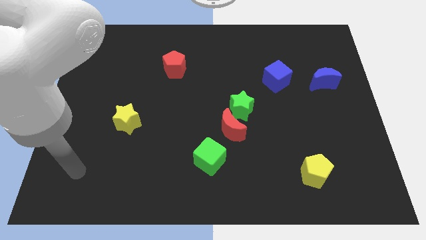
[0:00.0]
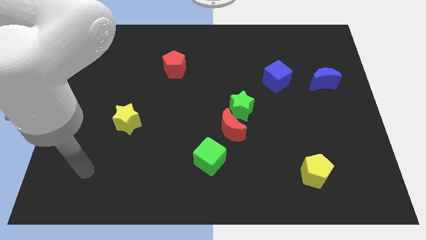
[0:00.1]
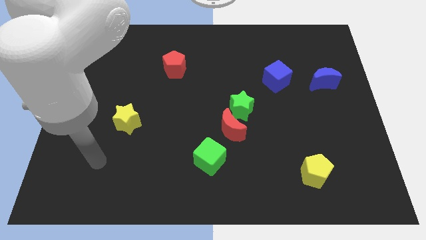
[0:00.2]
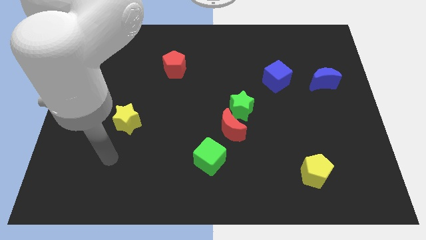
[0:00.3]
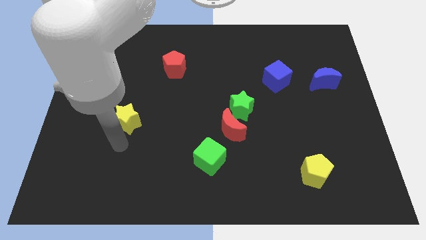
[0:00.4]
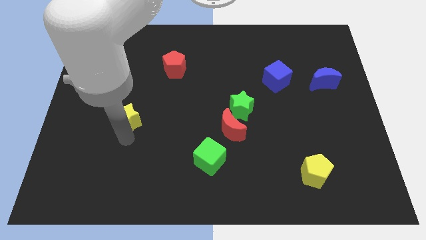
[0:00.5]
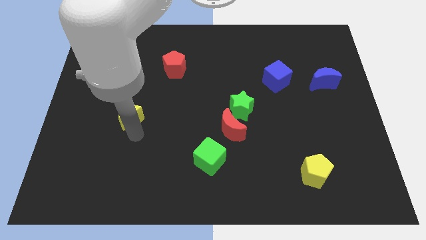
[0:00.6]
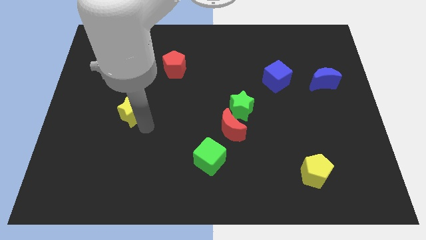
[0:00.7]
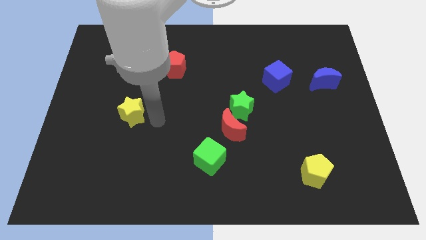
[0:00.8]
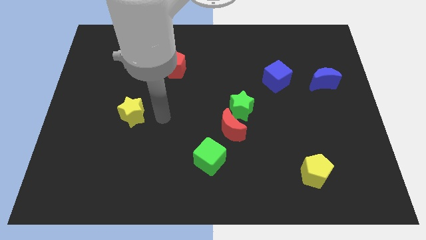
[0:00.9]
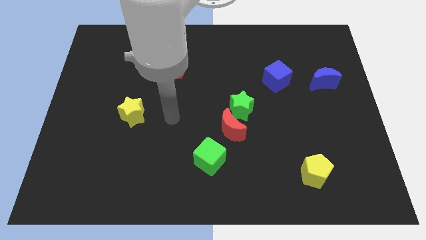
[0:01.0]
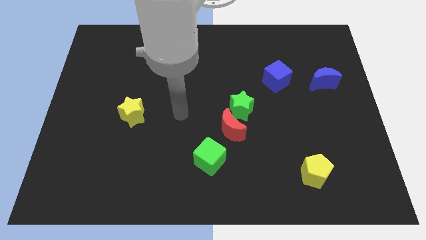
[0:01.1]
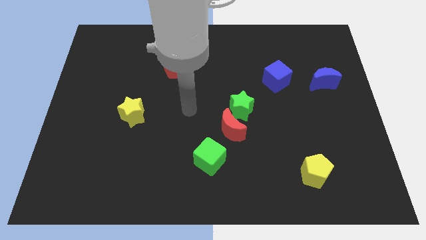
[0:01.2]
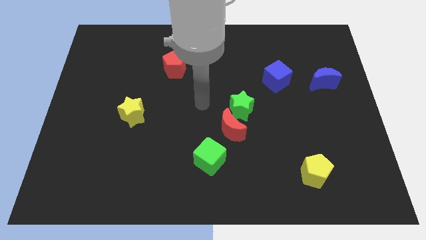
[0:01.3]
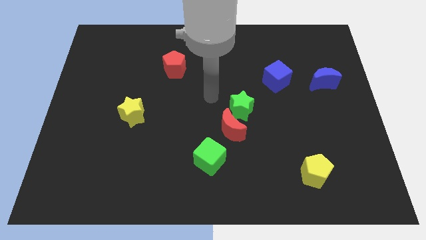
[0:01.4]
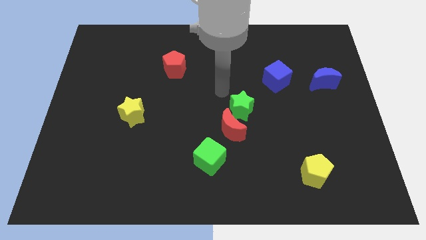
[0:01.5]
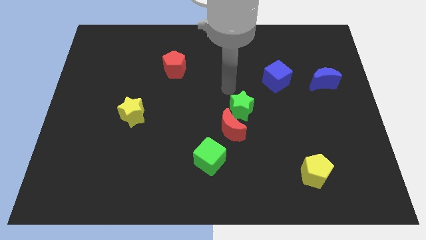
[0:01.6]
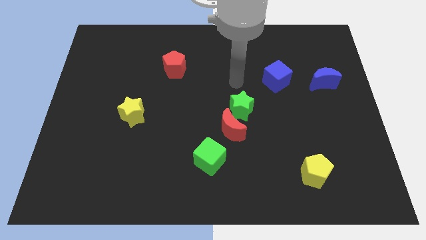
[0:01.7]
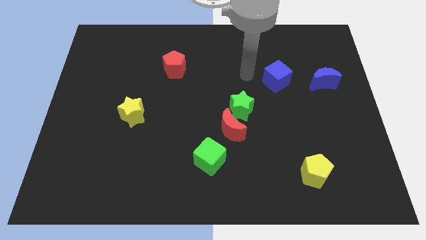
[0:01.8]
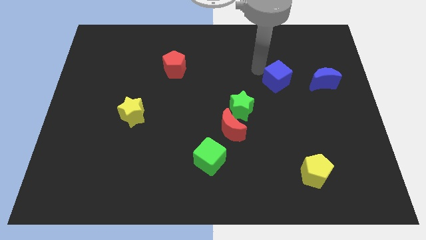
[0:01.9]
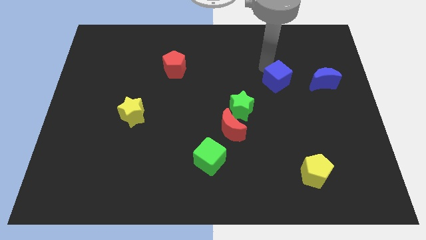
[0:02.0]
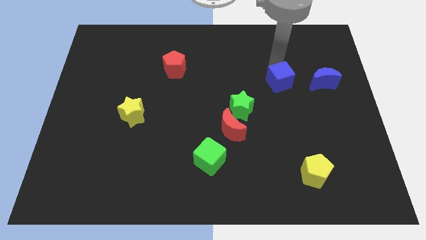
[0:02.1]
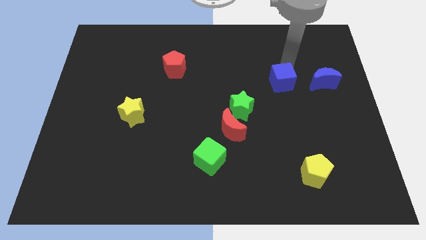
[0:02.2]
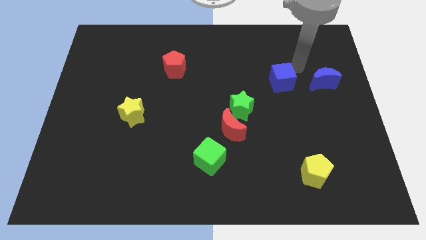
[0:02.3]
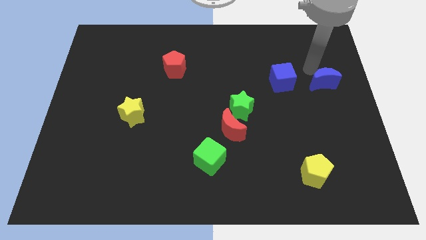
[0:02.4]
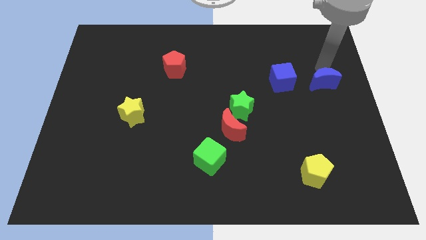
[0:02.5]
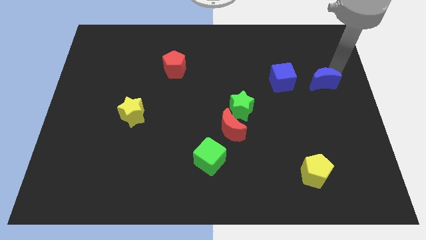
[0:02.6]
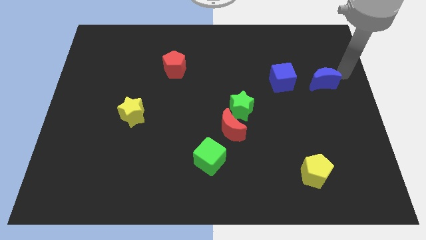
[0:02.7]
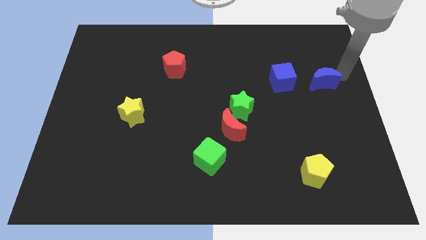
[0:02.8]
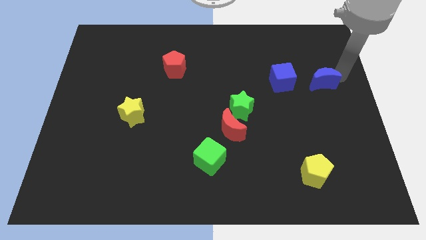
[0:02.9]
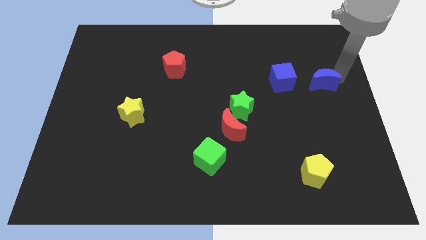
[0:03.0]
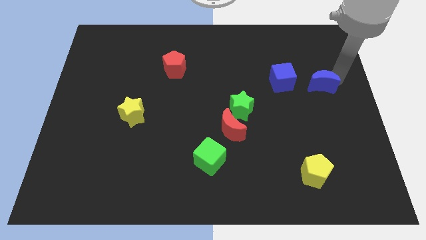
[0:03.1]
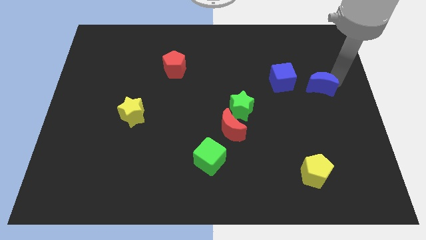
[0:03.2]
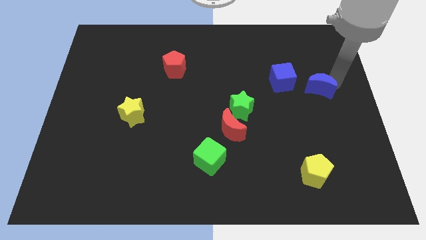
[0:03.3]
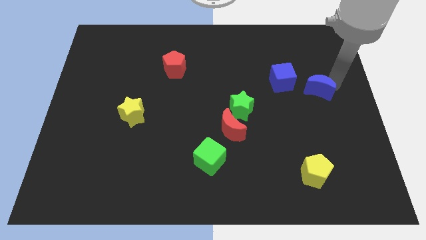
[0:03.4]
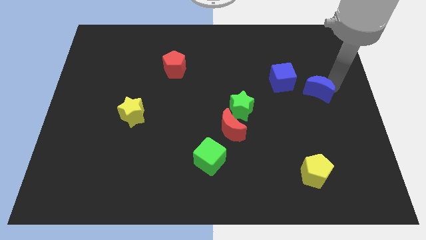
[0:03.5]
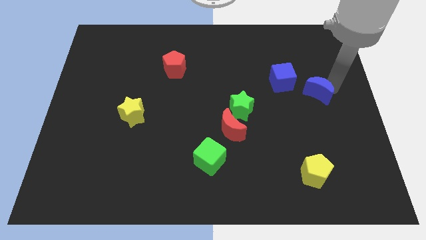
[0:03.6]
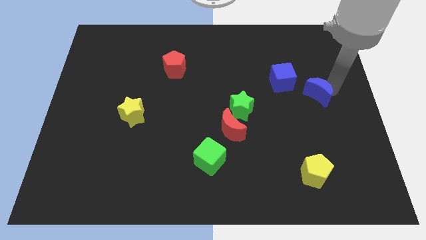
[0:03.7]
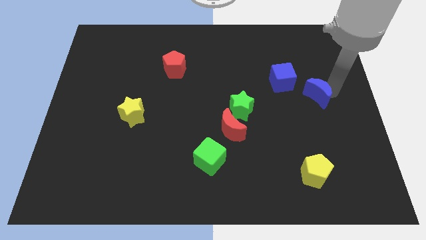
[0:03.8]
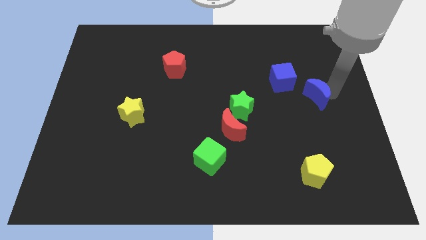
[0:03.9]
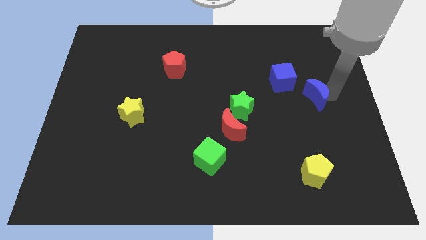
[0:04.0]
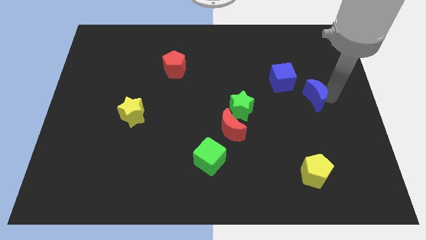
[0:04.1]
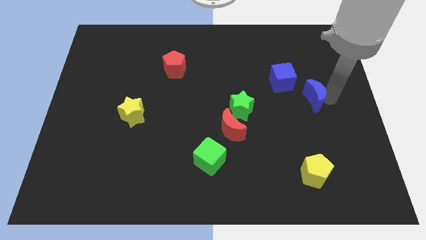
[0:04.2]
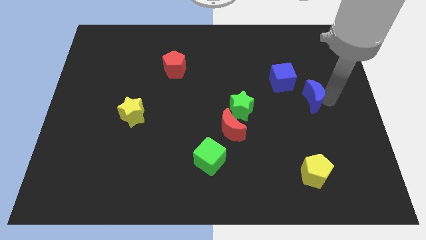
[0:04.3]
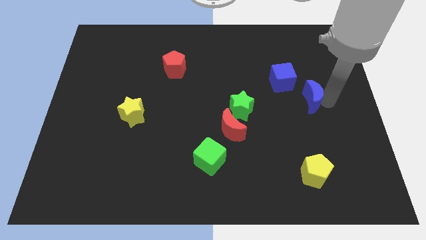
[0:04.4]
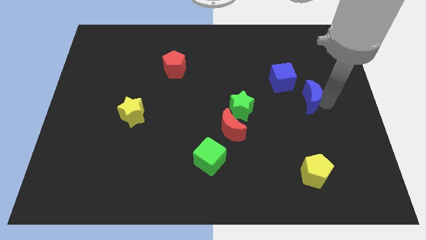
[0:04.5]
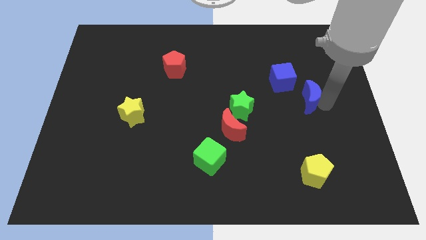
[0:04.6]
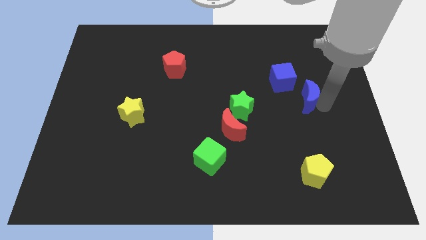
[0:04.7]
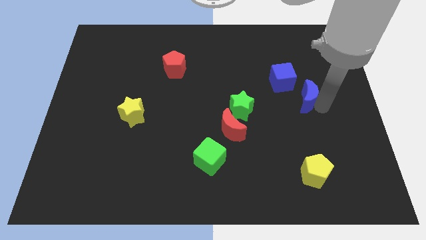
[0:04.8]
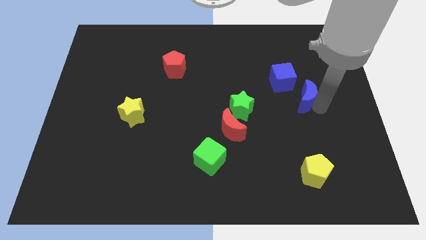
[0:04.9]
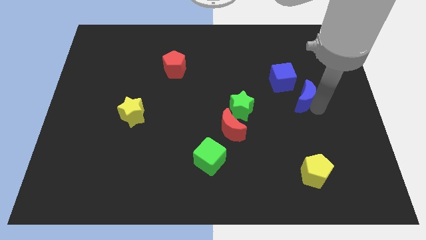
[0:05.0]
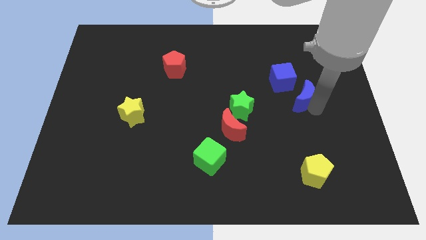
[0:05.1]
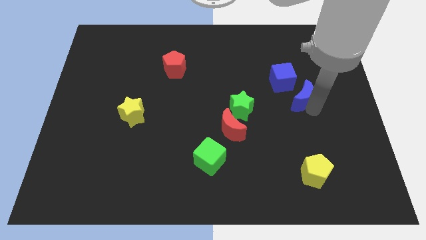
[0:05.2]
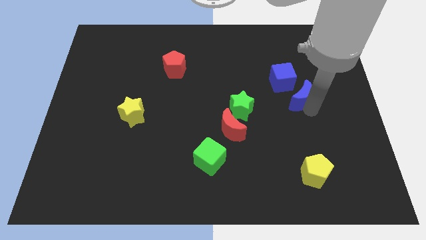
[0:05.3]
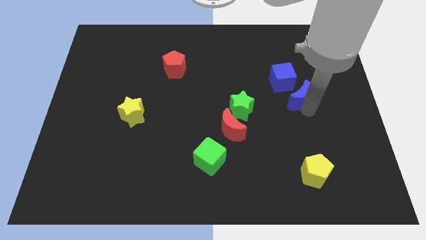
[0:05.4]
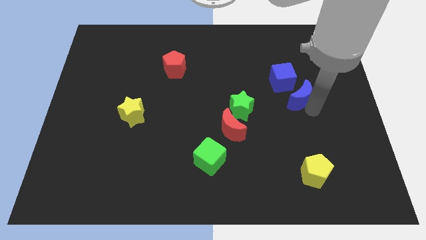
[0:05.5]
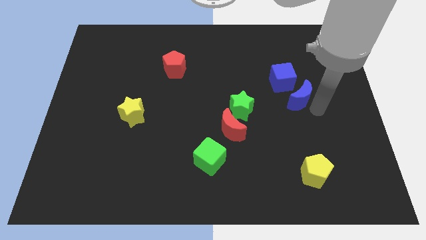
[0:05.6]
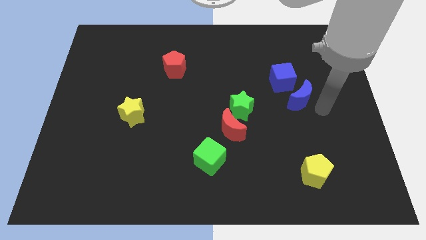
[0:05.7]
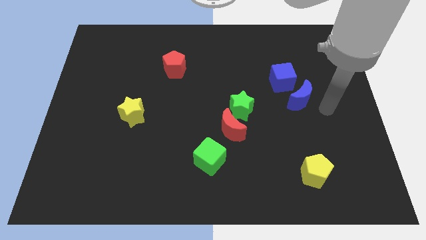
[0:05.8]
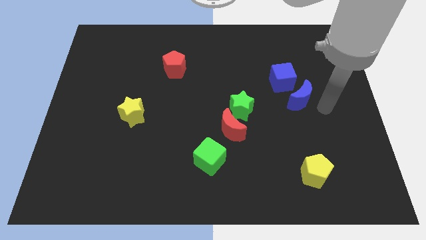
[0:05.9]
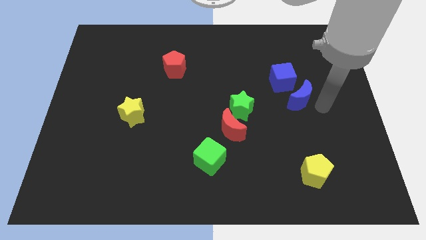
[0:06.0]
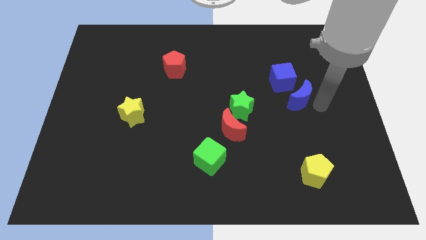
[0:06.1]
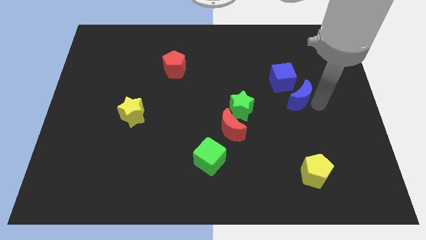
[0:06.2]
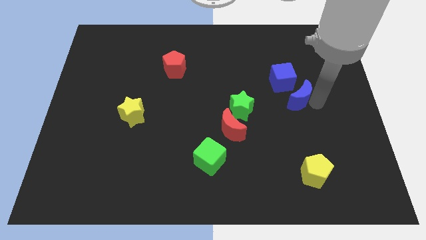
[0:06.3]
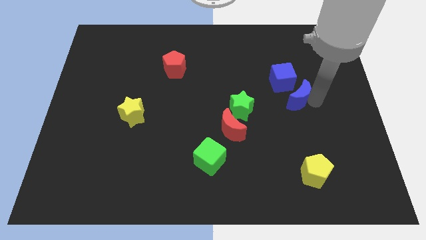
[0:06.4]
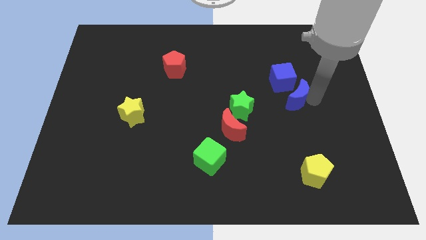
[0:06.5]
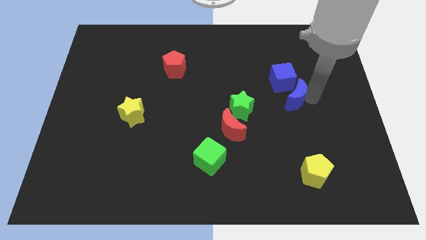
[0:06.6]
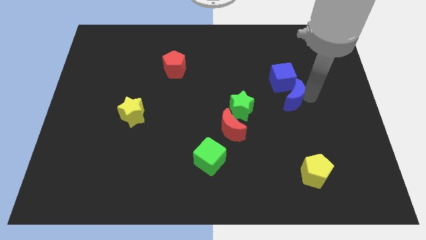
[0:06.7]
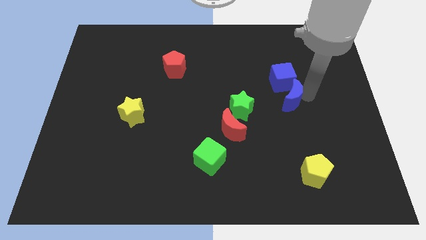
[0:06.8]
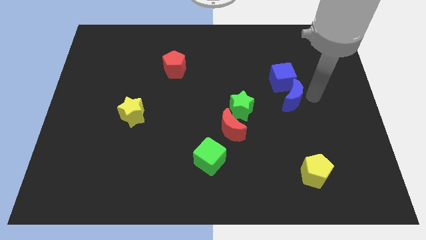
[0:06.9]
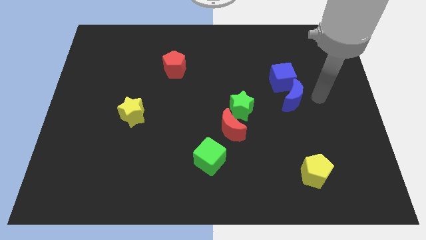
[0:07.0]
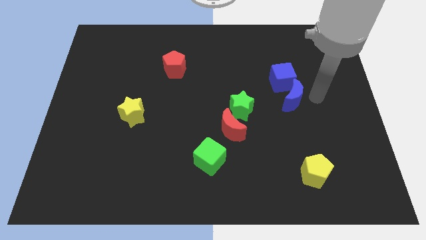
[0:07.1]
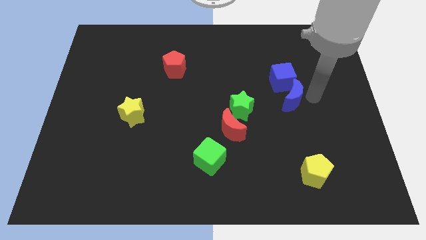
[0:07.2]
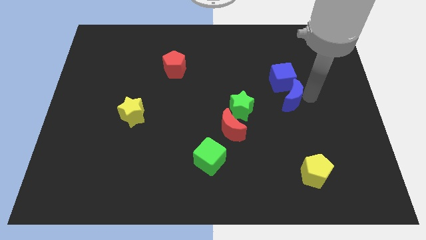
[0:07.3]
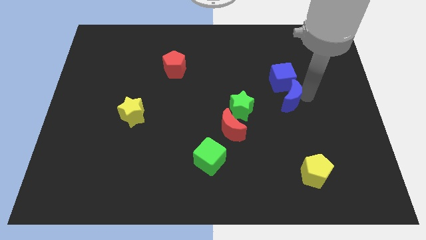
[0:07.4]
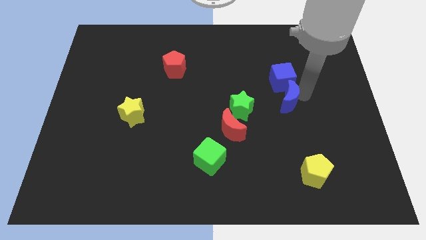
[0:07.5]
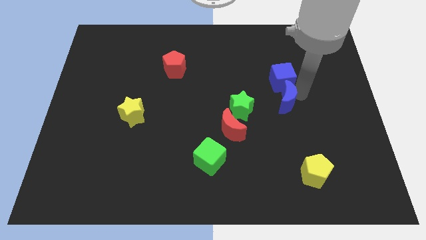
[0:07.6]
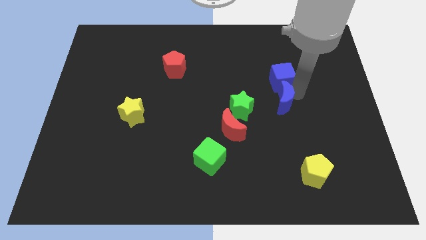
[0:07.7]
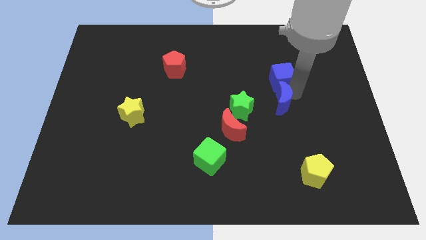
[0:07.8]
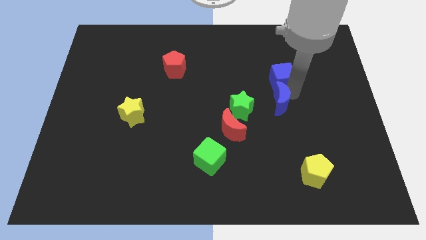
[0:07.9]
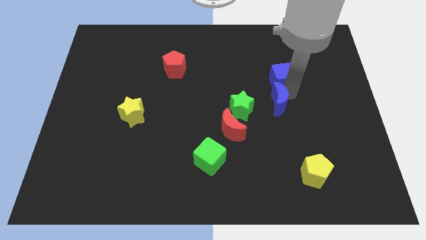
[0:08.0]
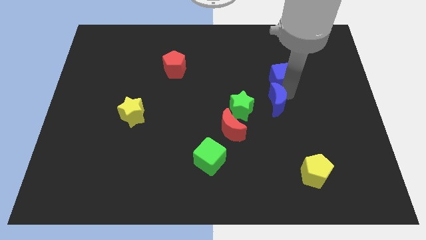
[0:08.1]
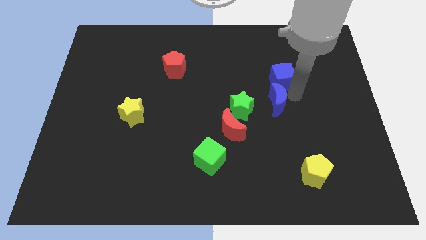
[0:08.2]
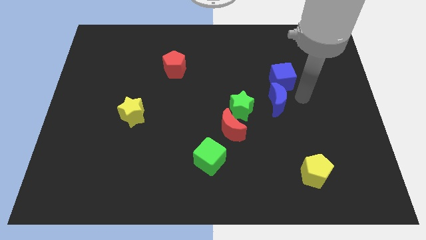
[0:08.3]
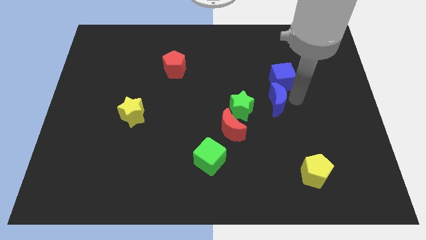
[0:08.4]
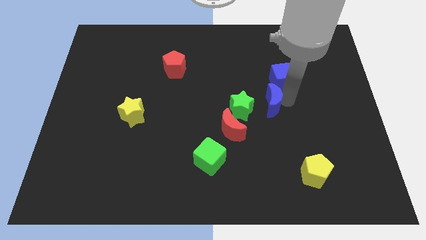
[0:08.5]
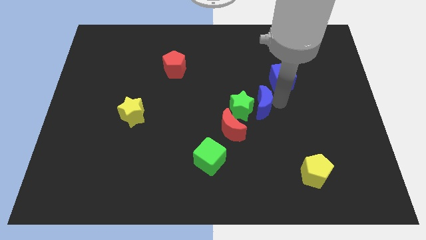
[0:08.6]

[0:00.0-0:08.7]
put the blue moon towards the green star
